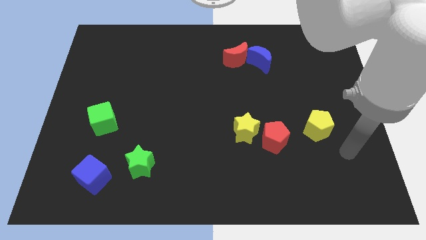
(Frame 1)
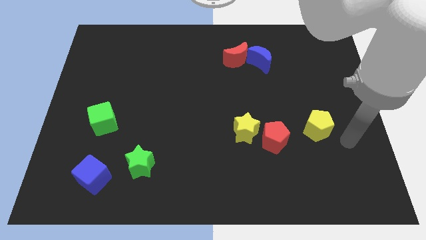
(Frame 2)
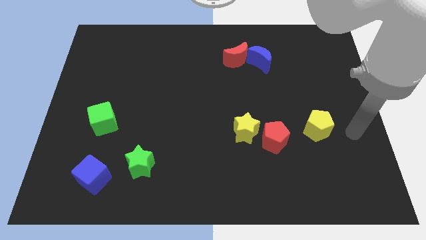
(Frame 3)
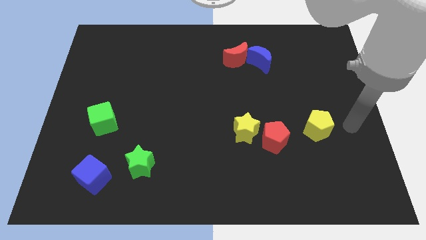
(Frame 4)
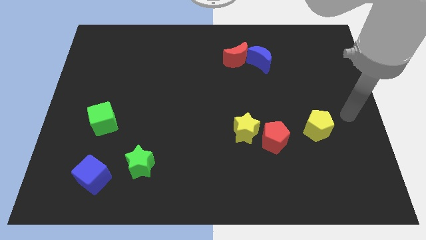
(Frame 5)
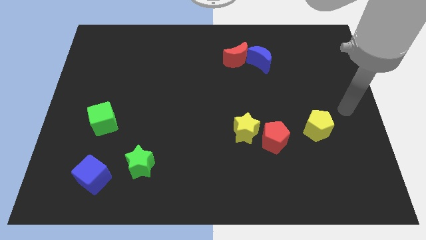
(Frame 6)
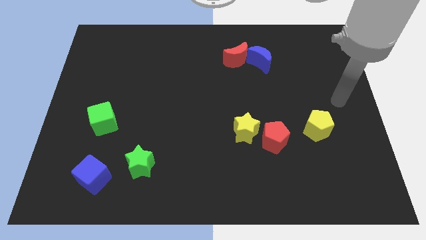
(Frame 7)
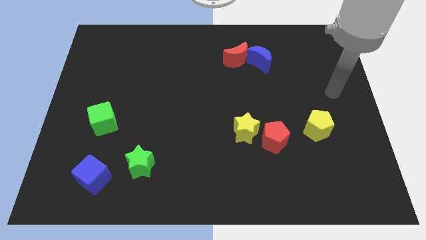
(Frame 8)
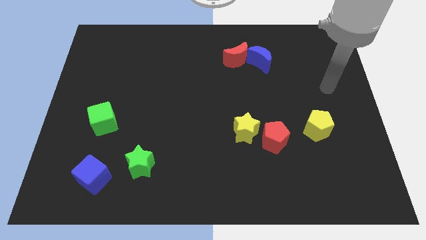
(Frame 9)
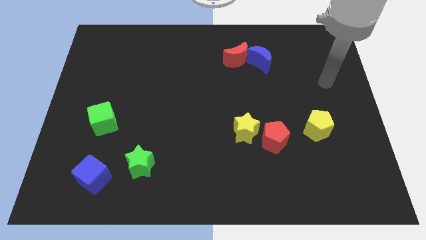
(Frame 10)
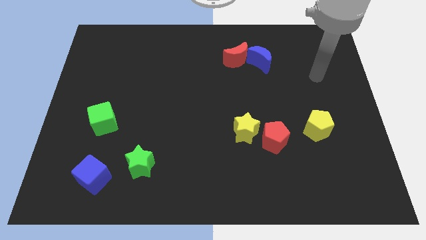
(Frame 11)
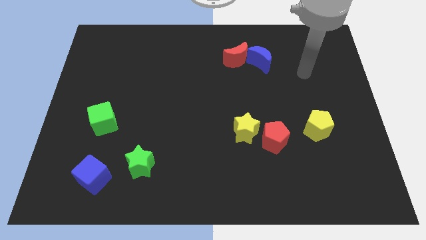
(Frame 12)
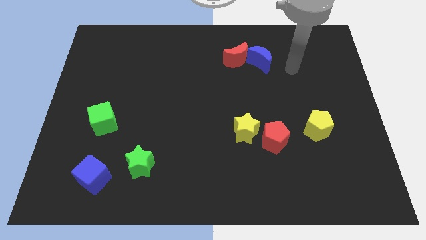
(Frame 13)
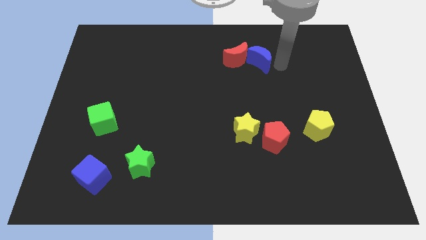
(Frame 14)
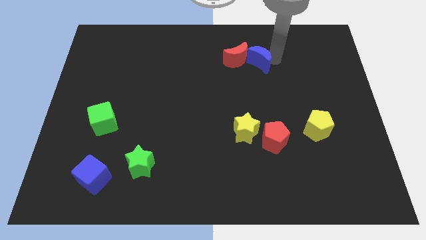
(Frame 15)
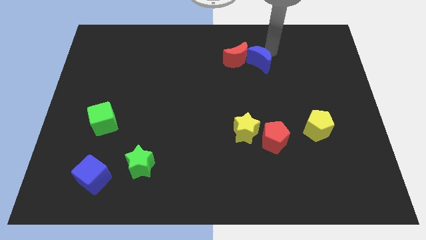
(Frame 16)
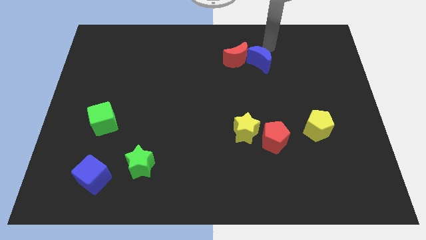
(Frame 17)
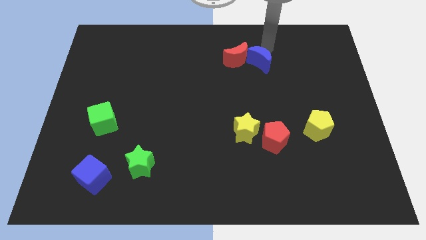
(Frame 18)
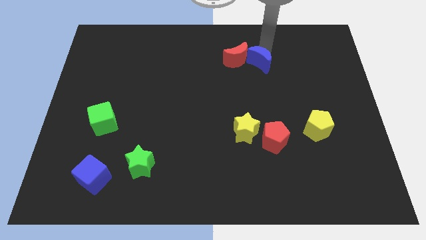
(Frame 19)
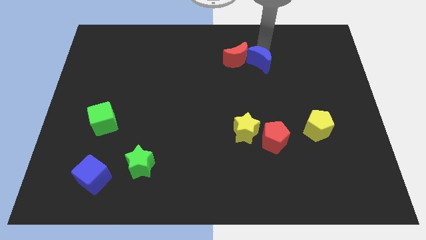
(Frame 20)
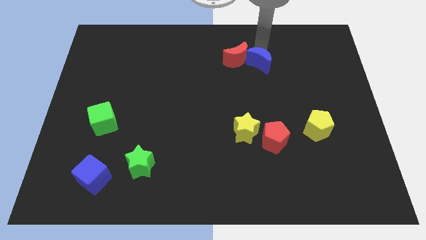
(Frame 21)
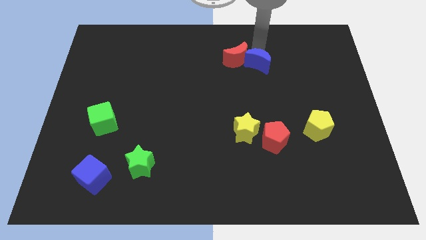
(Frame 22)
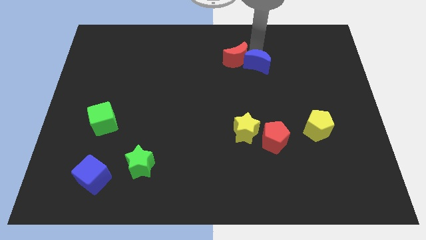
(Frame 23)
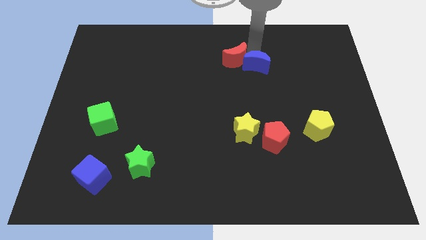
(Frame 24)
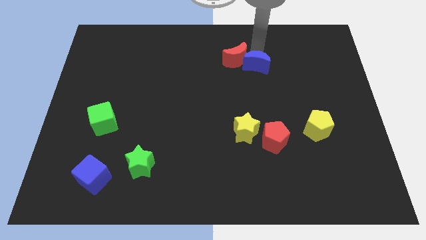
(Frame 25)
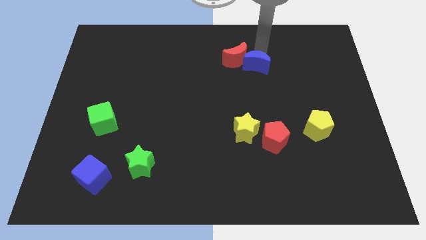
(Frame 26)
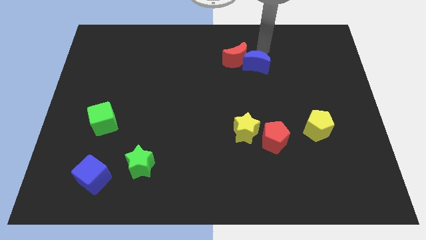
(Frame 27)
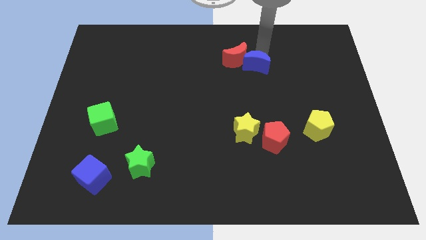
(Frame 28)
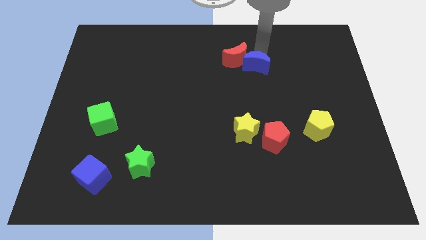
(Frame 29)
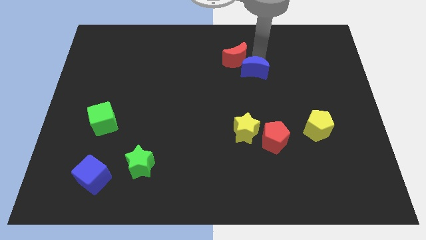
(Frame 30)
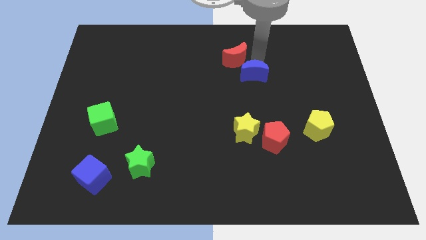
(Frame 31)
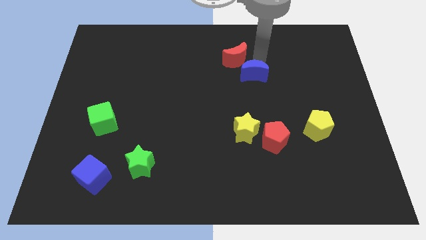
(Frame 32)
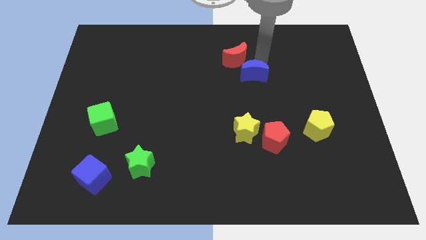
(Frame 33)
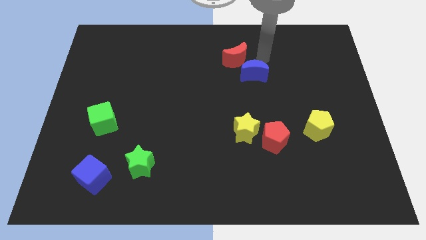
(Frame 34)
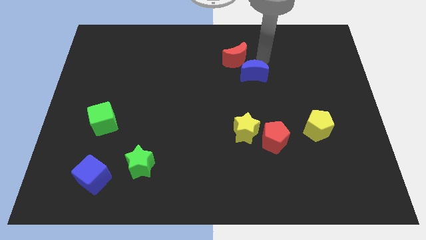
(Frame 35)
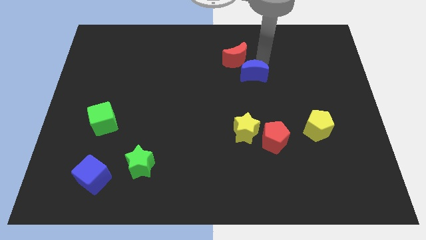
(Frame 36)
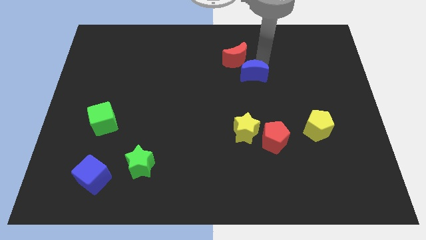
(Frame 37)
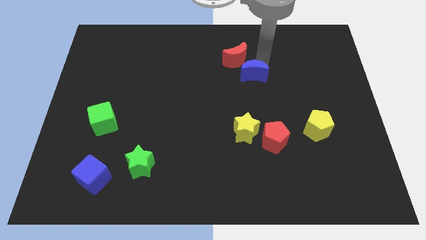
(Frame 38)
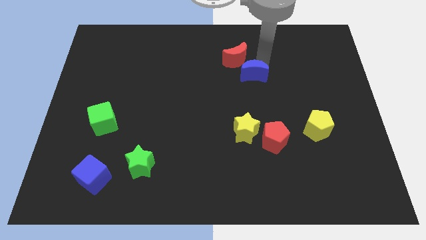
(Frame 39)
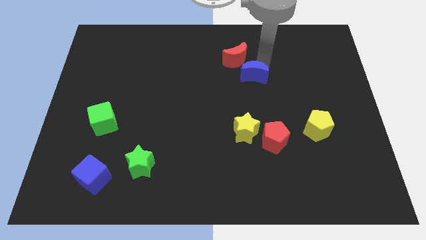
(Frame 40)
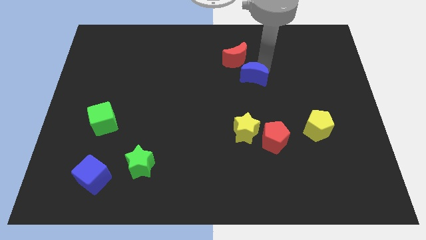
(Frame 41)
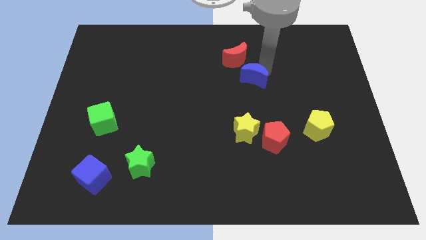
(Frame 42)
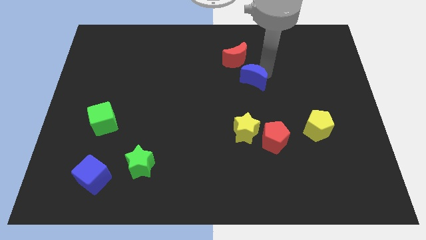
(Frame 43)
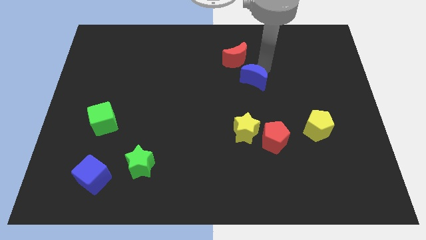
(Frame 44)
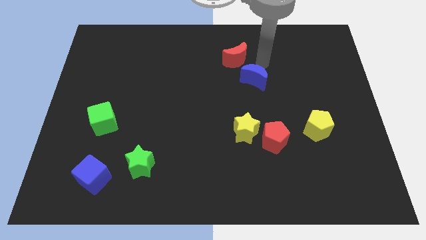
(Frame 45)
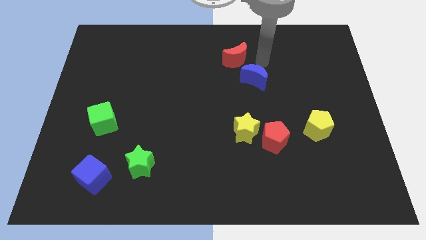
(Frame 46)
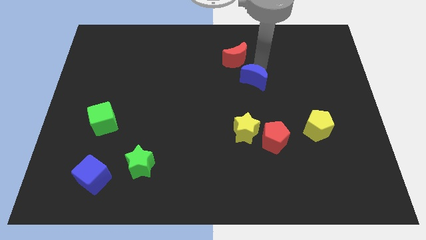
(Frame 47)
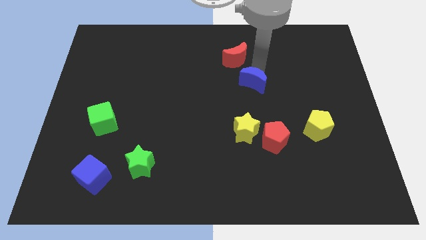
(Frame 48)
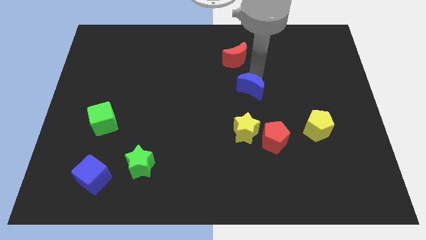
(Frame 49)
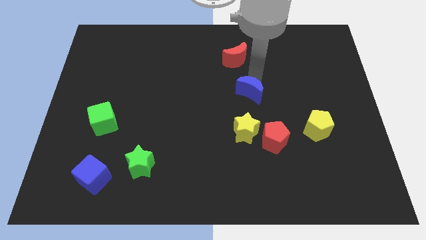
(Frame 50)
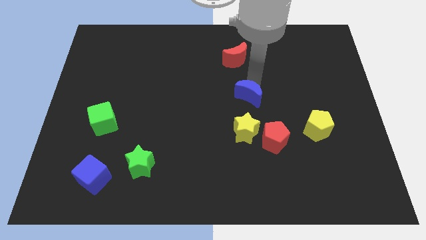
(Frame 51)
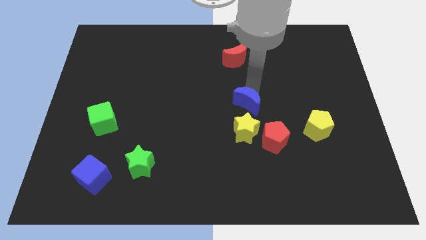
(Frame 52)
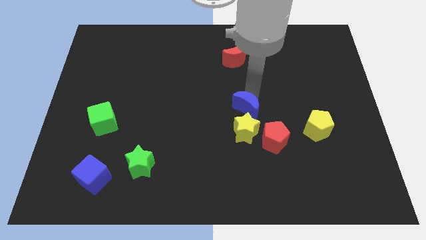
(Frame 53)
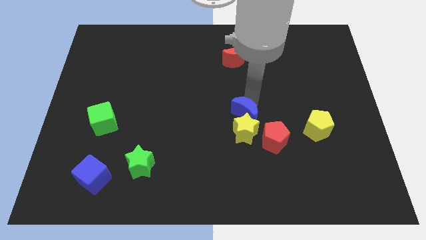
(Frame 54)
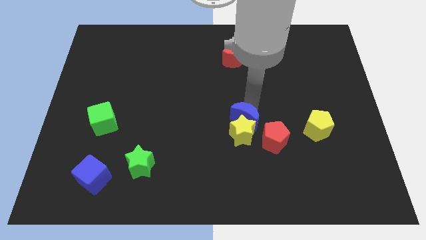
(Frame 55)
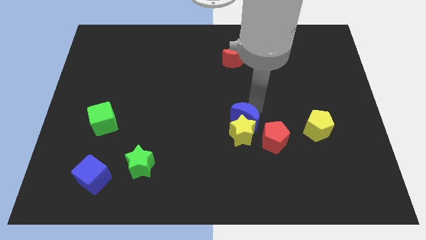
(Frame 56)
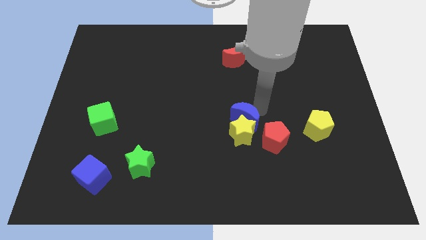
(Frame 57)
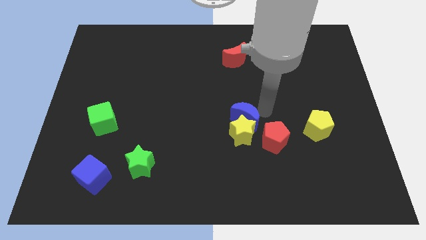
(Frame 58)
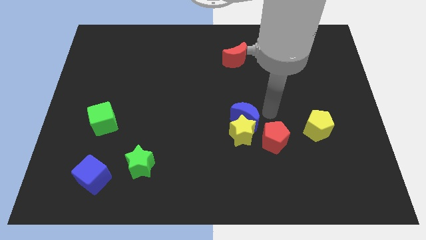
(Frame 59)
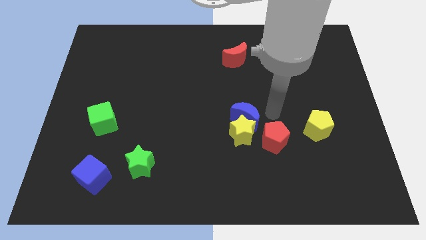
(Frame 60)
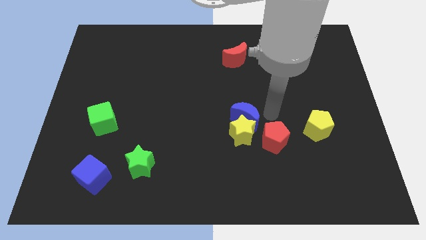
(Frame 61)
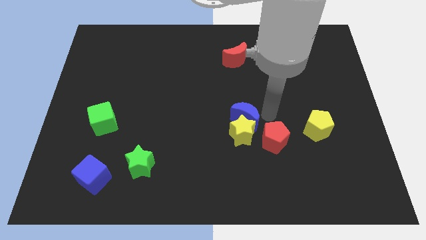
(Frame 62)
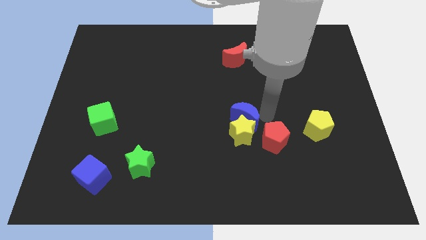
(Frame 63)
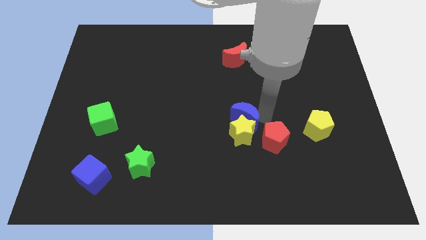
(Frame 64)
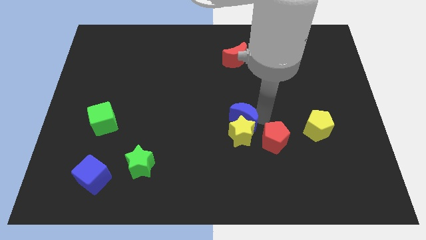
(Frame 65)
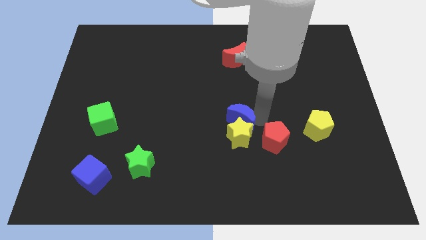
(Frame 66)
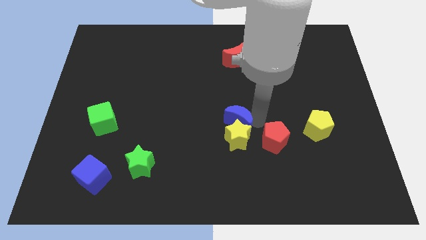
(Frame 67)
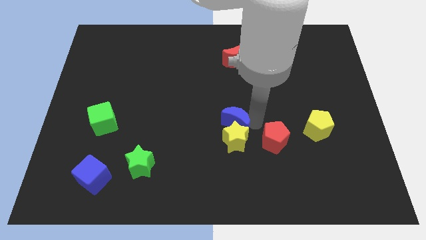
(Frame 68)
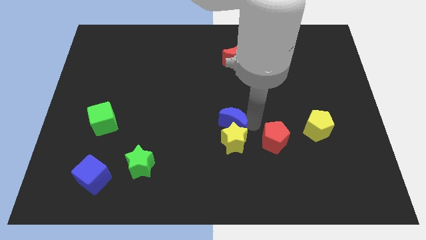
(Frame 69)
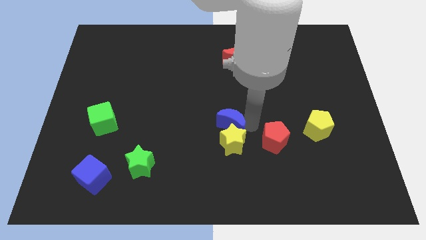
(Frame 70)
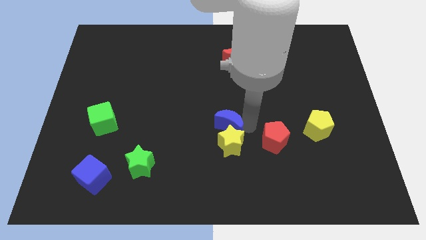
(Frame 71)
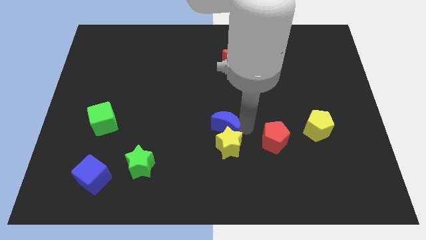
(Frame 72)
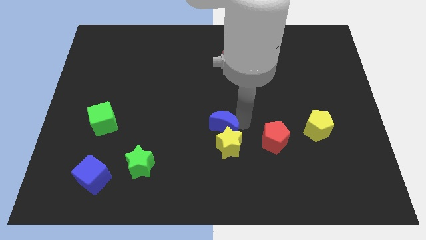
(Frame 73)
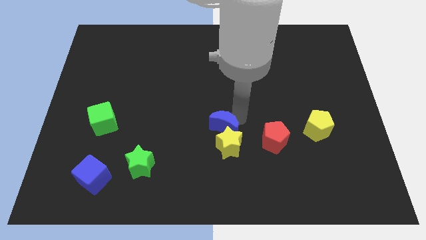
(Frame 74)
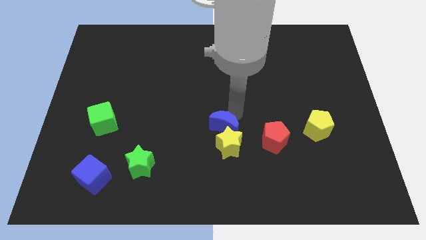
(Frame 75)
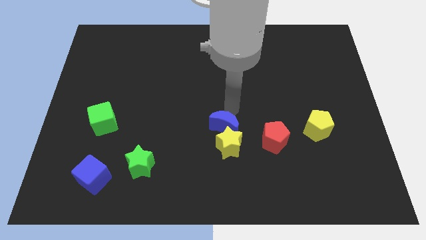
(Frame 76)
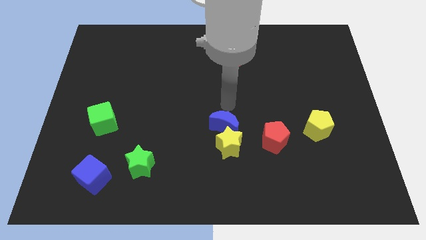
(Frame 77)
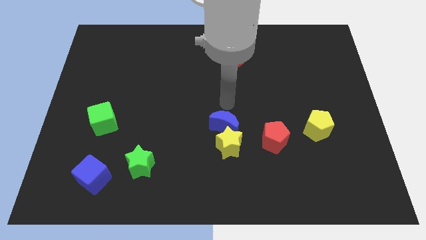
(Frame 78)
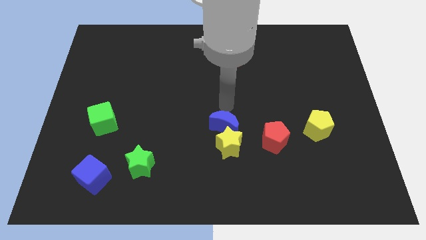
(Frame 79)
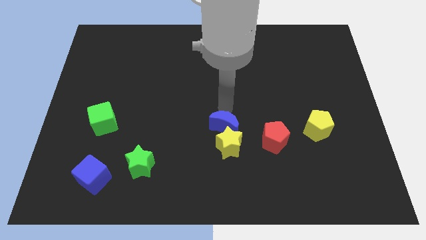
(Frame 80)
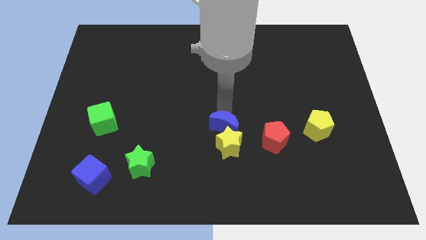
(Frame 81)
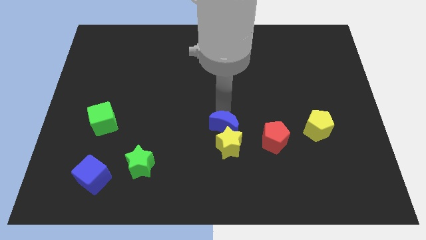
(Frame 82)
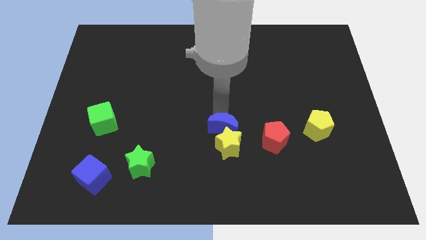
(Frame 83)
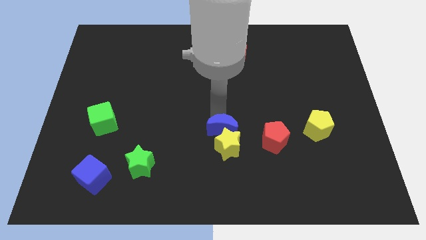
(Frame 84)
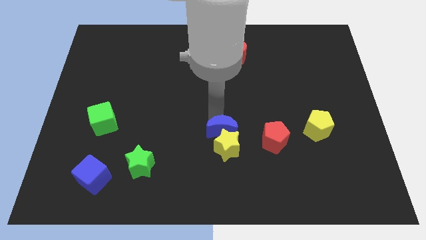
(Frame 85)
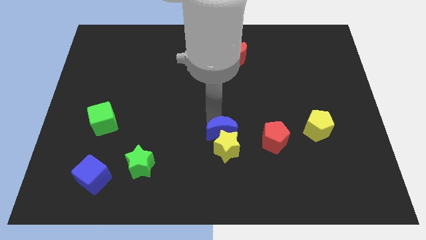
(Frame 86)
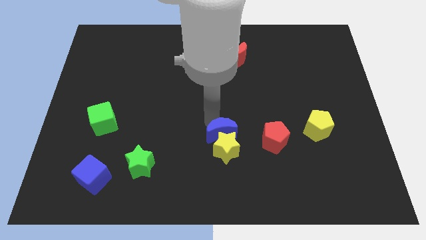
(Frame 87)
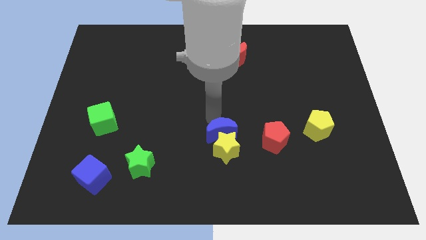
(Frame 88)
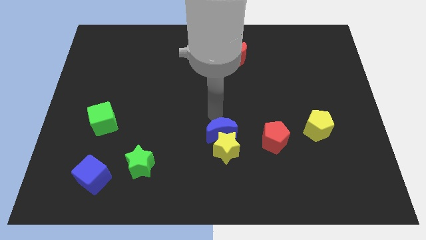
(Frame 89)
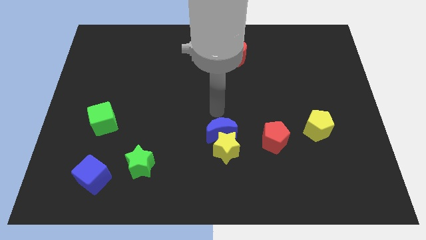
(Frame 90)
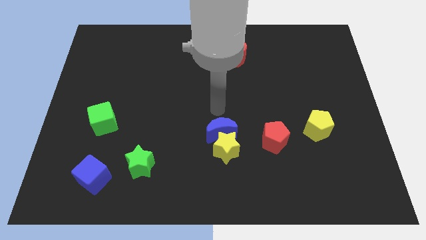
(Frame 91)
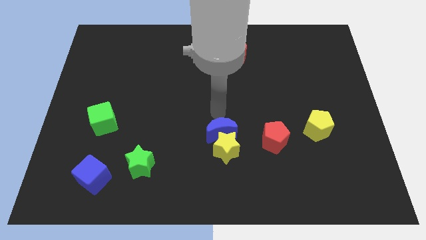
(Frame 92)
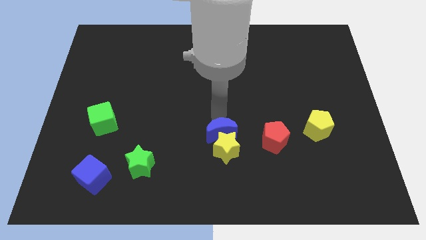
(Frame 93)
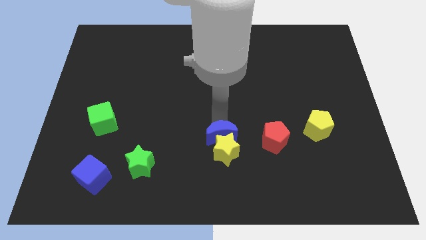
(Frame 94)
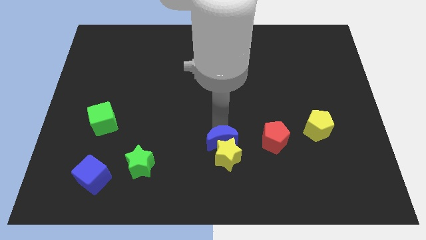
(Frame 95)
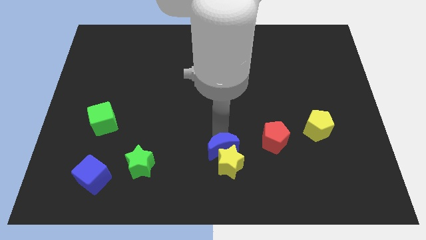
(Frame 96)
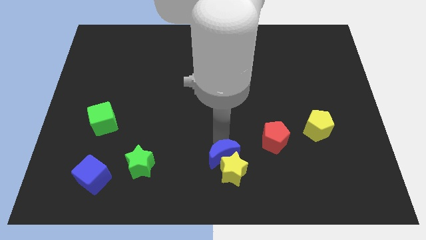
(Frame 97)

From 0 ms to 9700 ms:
put the blue moon to the bottom
